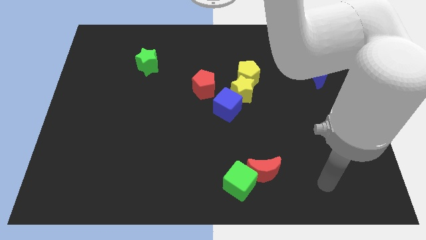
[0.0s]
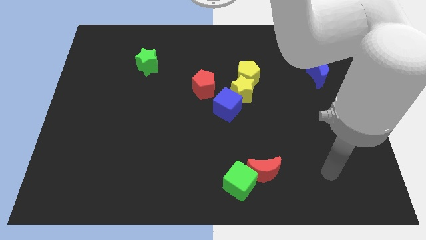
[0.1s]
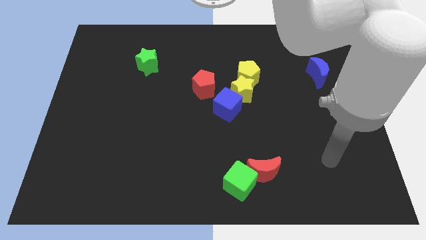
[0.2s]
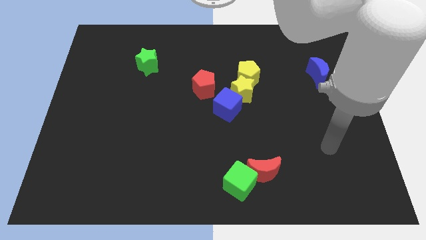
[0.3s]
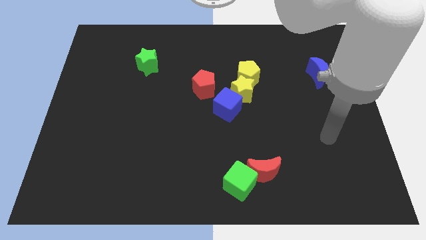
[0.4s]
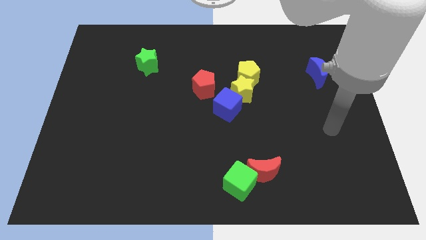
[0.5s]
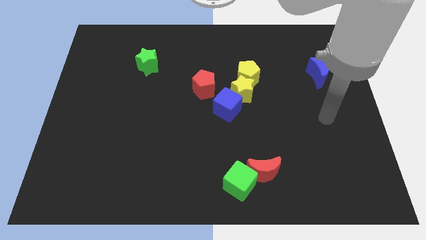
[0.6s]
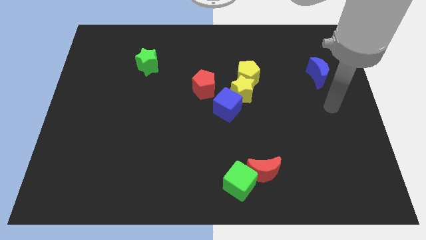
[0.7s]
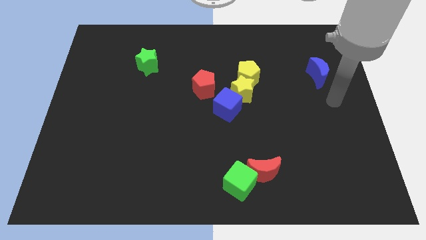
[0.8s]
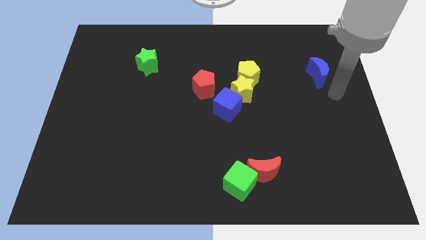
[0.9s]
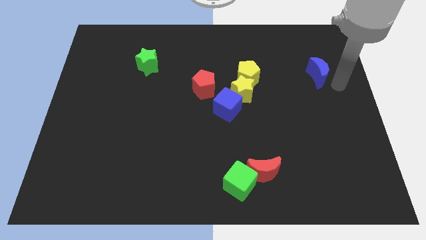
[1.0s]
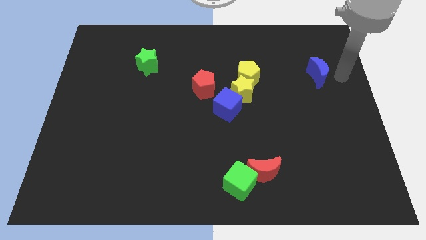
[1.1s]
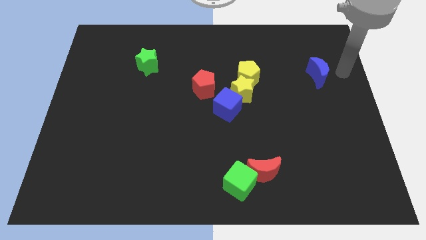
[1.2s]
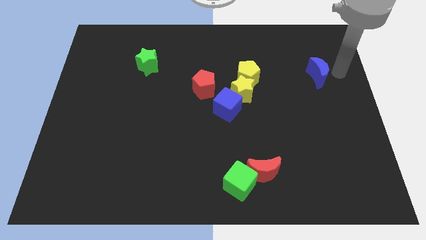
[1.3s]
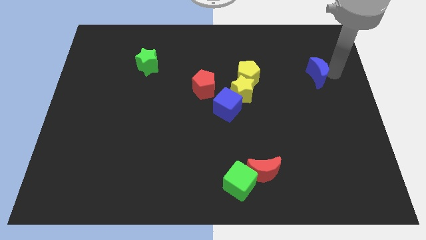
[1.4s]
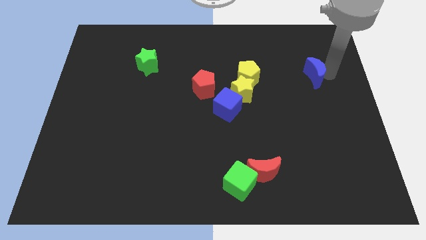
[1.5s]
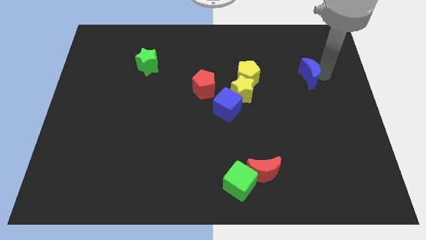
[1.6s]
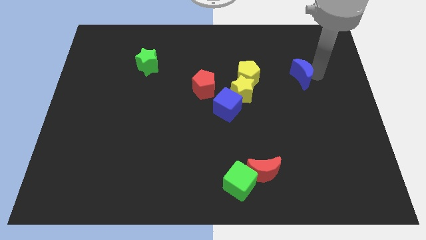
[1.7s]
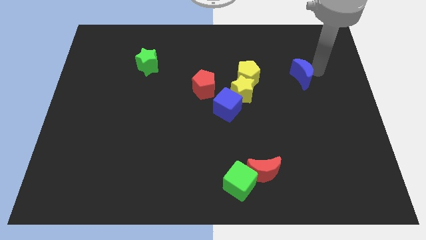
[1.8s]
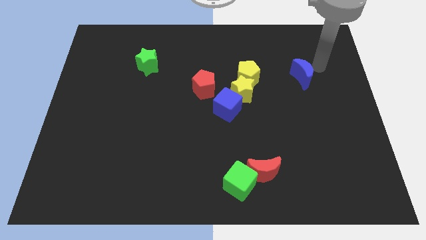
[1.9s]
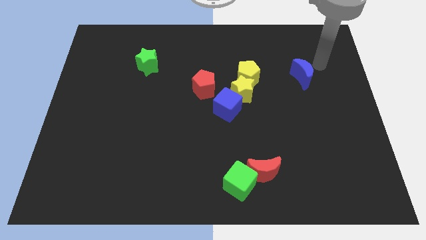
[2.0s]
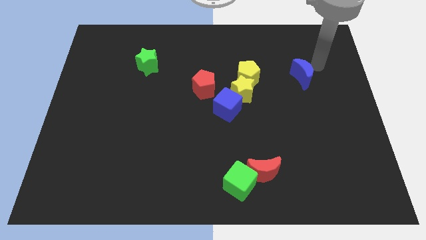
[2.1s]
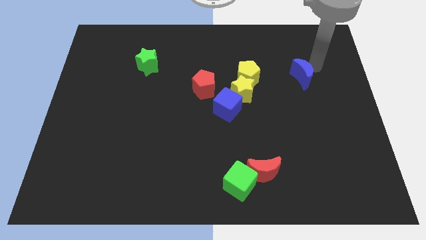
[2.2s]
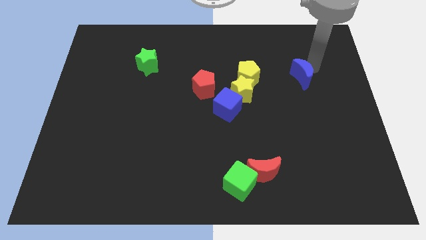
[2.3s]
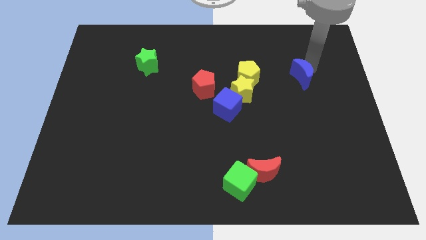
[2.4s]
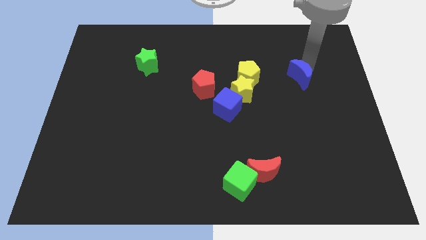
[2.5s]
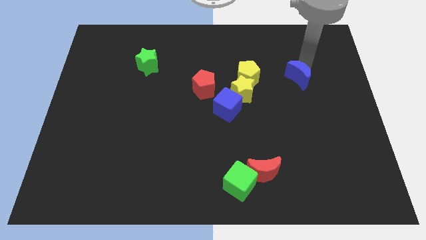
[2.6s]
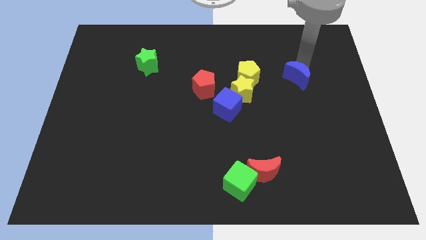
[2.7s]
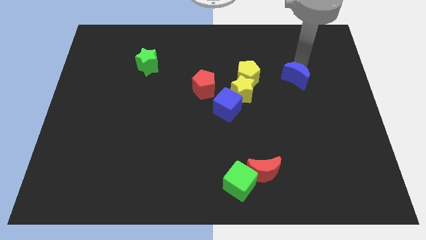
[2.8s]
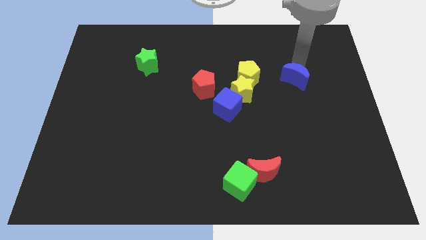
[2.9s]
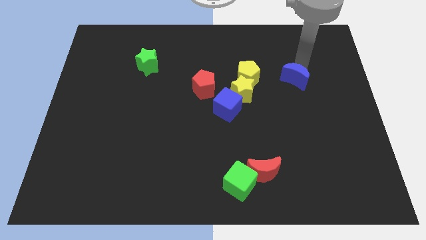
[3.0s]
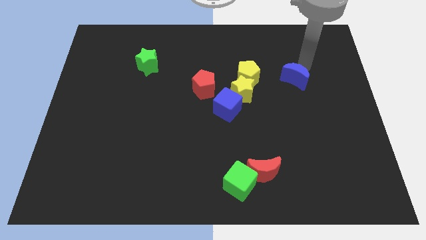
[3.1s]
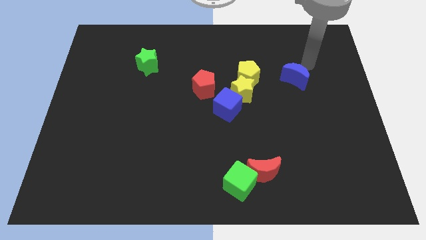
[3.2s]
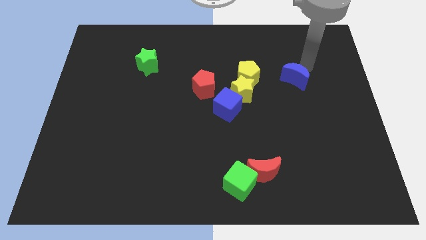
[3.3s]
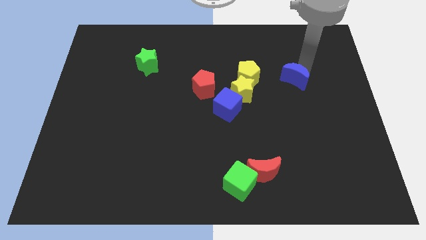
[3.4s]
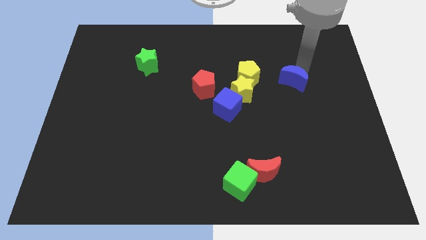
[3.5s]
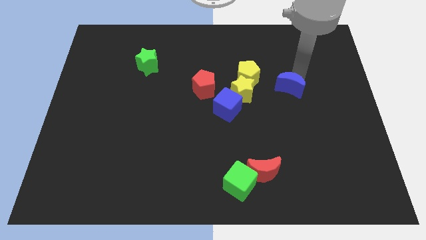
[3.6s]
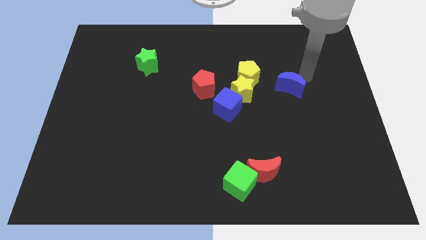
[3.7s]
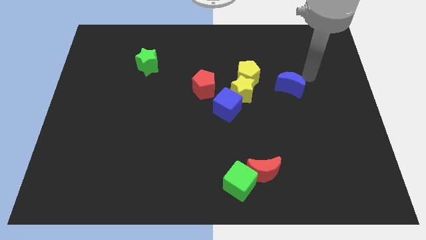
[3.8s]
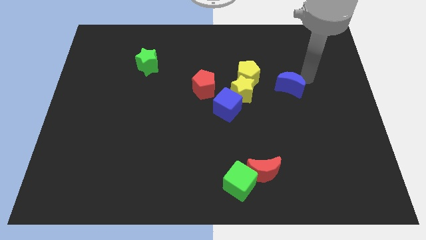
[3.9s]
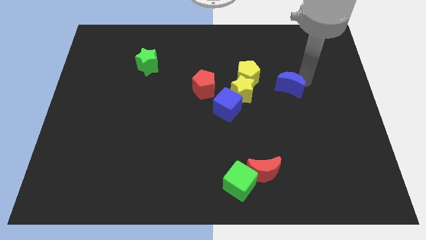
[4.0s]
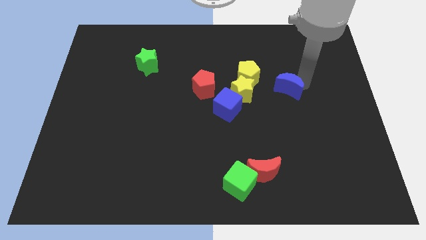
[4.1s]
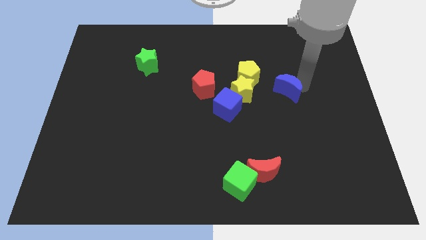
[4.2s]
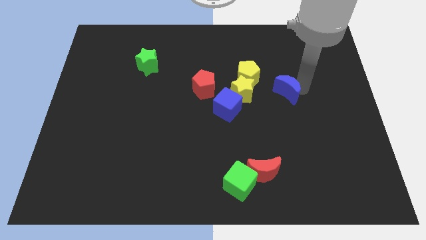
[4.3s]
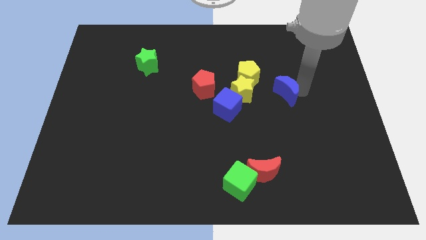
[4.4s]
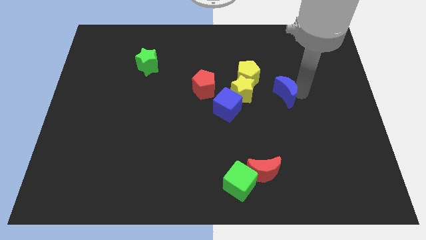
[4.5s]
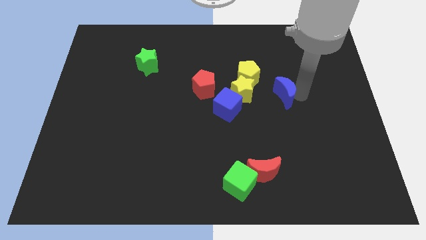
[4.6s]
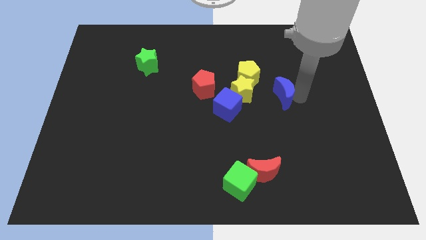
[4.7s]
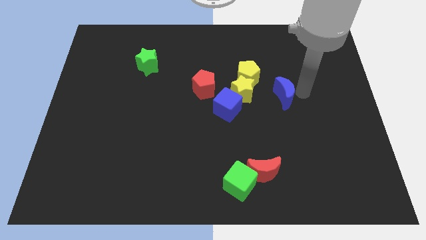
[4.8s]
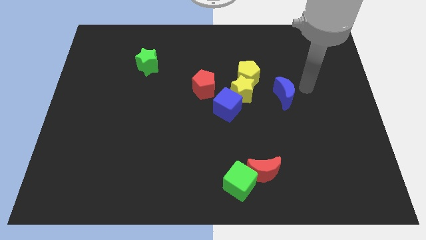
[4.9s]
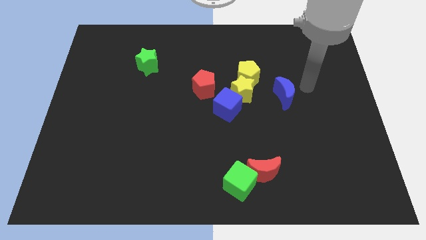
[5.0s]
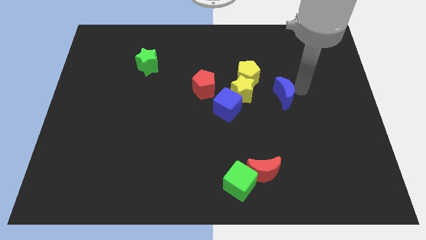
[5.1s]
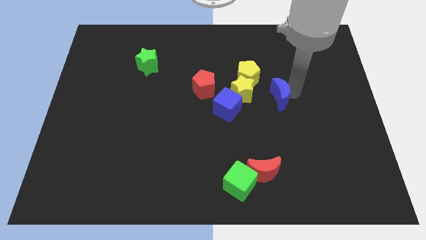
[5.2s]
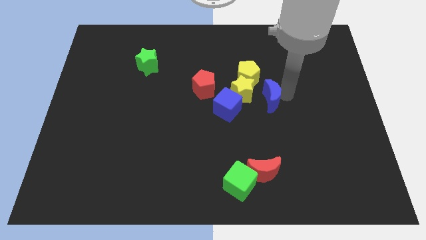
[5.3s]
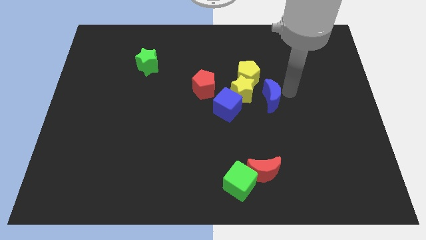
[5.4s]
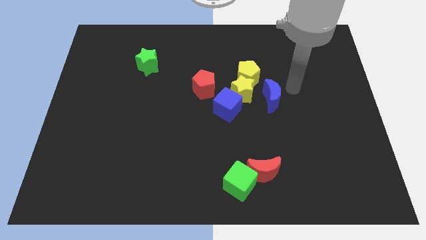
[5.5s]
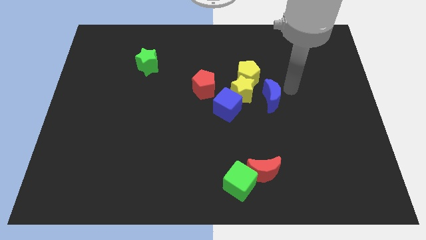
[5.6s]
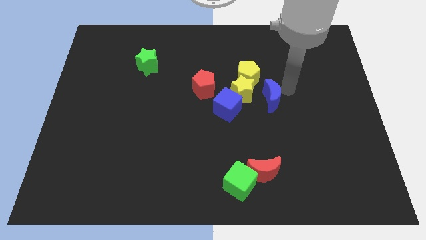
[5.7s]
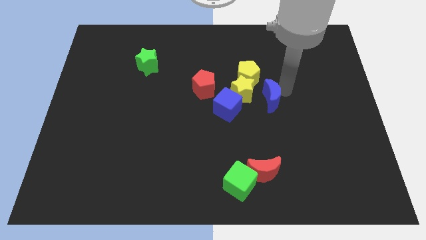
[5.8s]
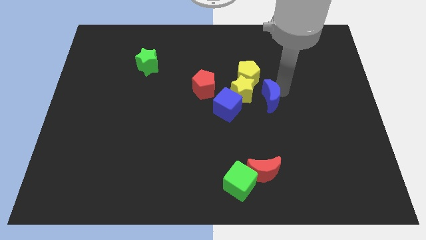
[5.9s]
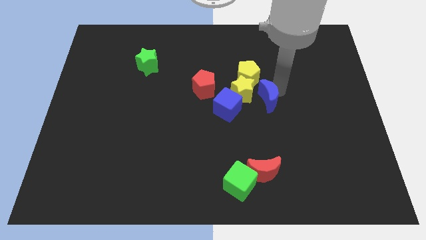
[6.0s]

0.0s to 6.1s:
move the blue moon below the yellow pentagon
